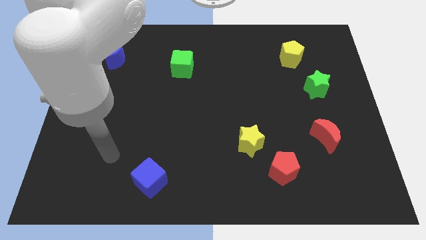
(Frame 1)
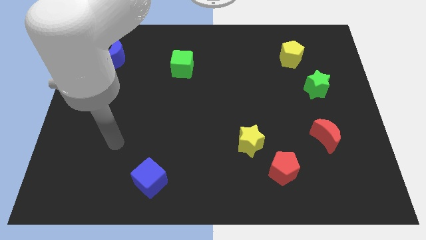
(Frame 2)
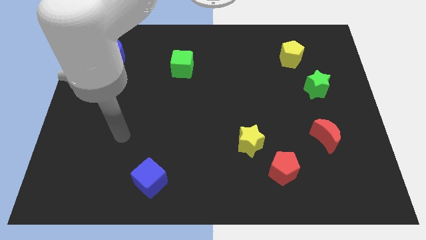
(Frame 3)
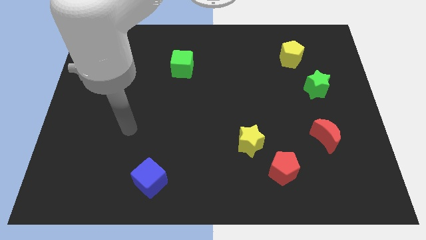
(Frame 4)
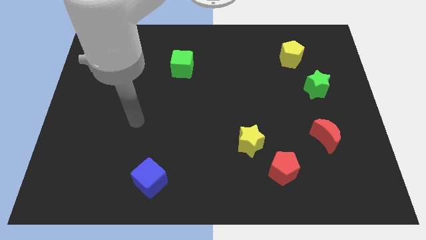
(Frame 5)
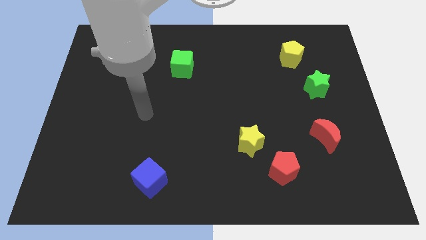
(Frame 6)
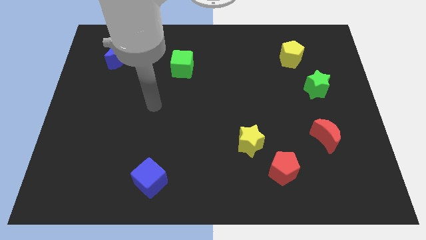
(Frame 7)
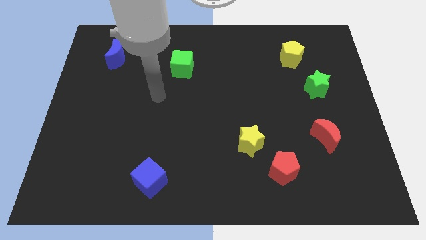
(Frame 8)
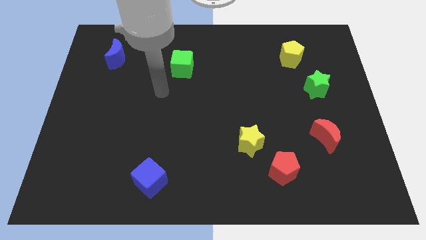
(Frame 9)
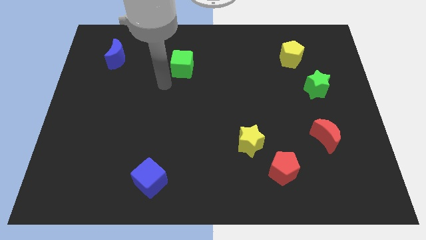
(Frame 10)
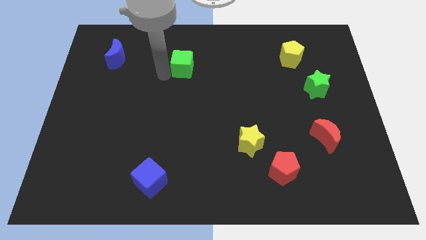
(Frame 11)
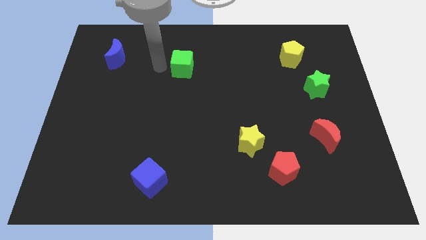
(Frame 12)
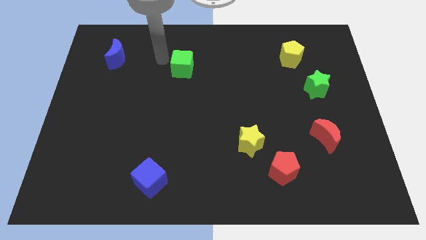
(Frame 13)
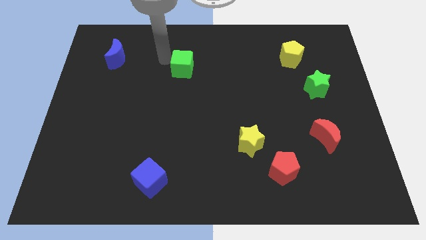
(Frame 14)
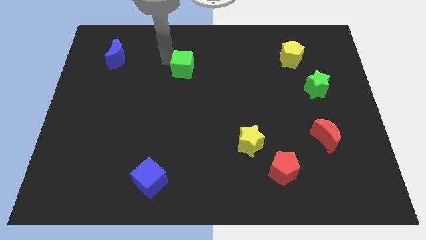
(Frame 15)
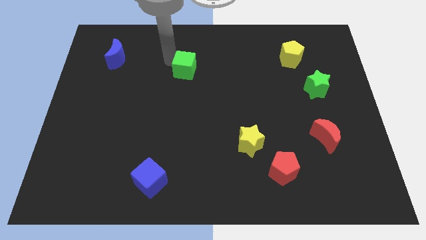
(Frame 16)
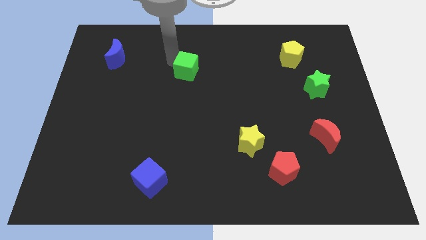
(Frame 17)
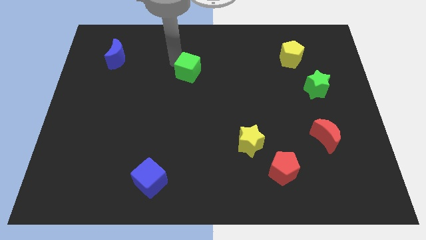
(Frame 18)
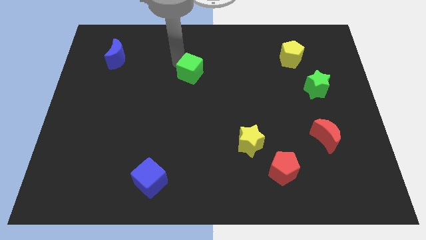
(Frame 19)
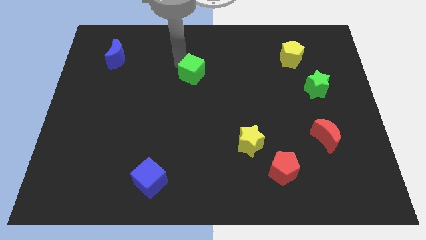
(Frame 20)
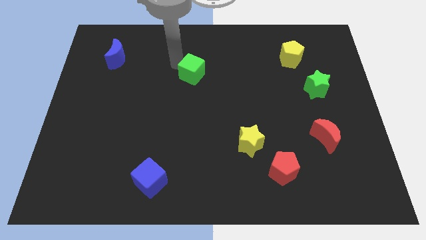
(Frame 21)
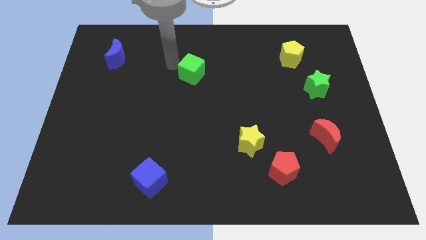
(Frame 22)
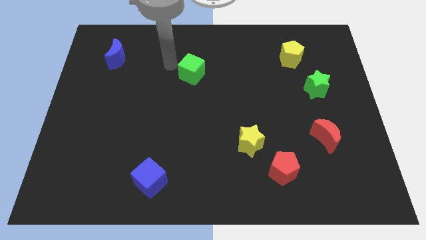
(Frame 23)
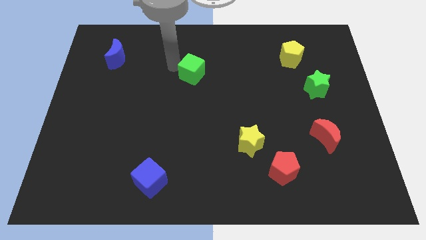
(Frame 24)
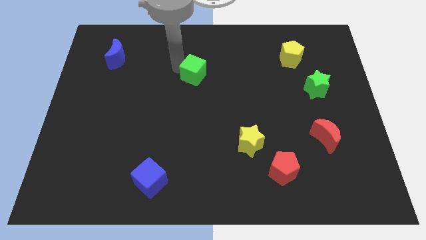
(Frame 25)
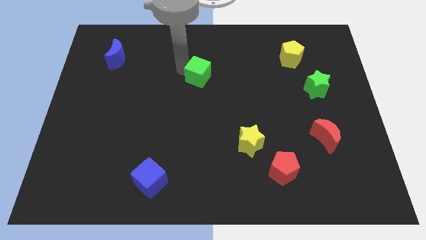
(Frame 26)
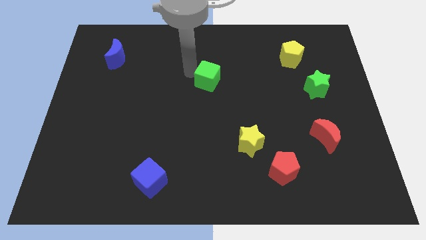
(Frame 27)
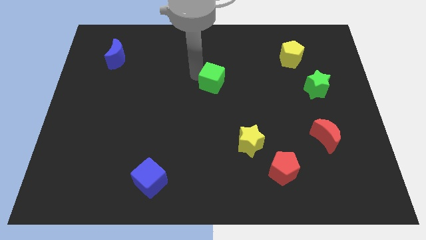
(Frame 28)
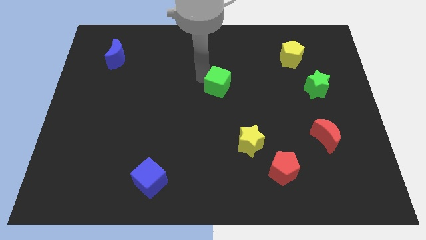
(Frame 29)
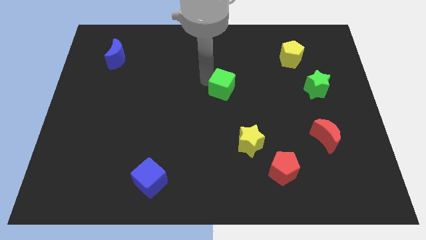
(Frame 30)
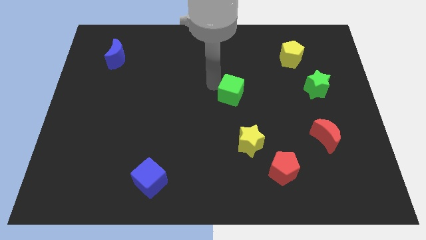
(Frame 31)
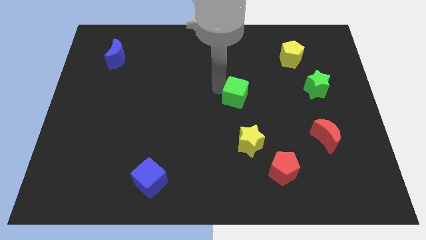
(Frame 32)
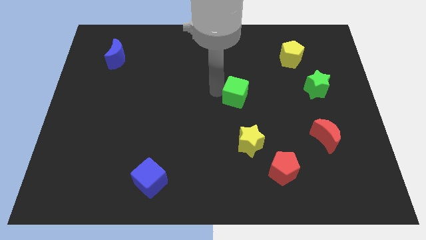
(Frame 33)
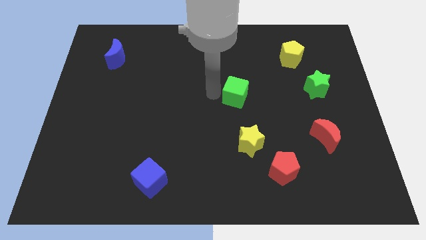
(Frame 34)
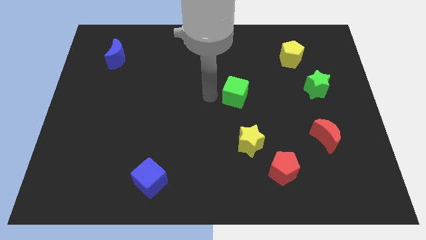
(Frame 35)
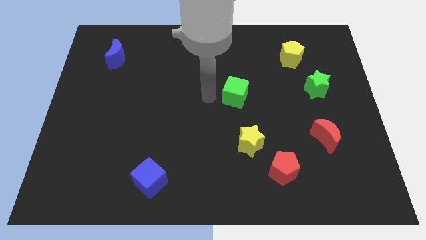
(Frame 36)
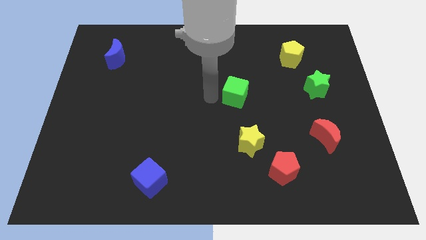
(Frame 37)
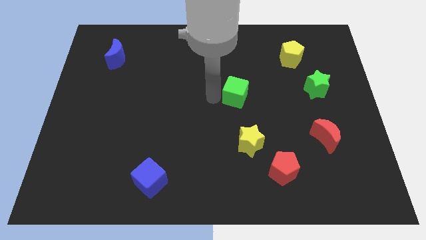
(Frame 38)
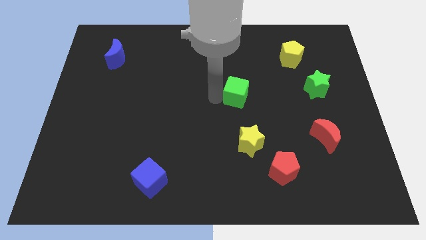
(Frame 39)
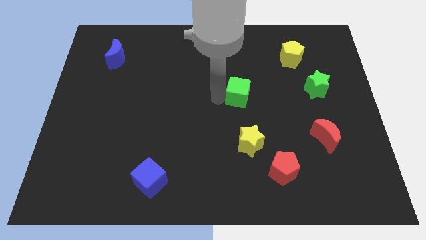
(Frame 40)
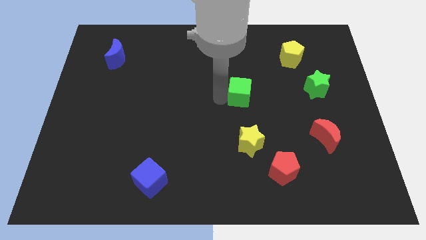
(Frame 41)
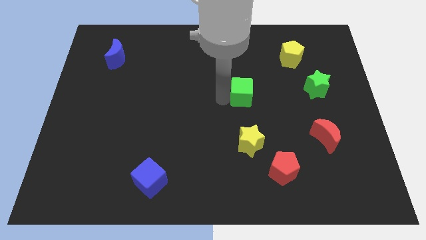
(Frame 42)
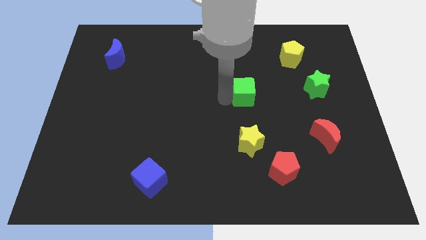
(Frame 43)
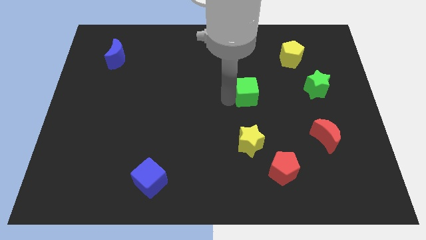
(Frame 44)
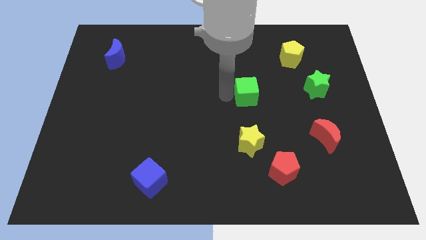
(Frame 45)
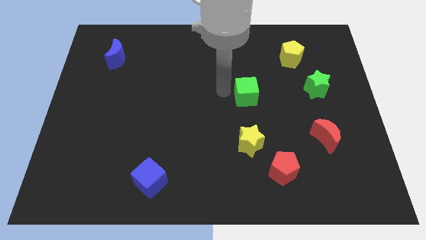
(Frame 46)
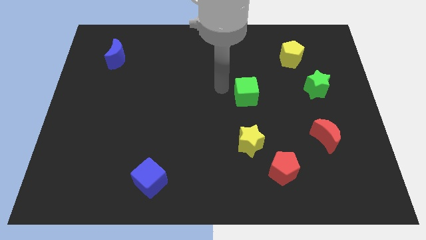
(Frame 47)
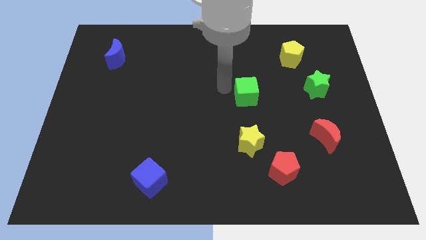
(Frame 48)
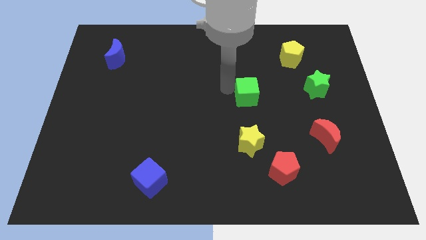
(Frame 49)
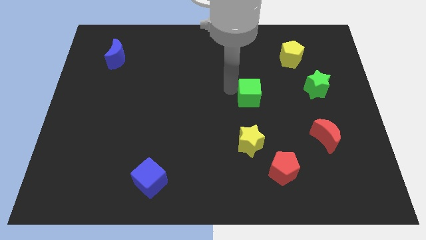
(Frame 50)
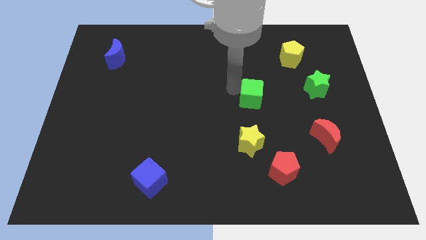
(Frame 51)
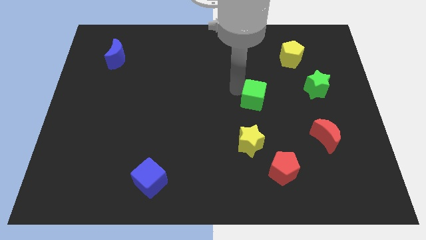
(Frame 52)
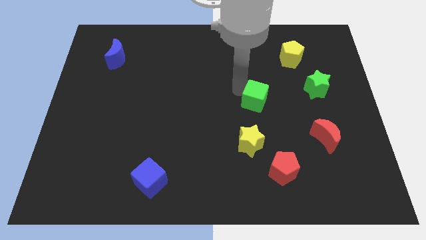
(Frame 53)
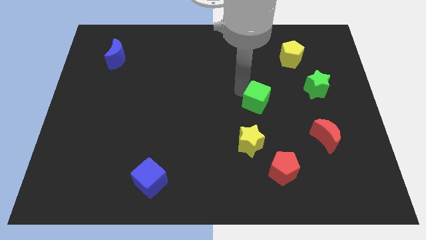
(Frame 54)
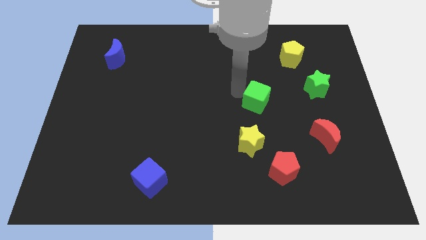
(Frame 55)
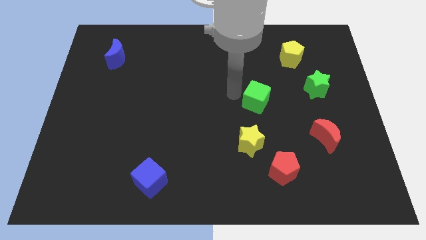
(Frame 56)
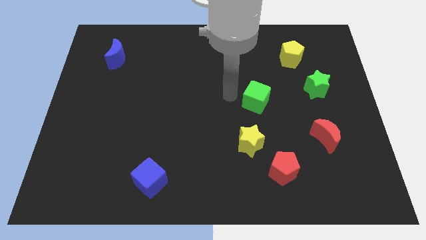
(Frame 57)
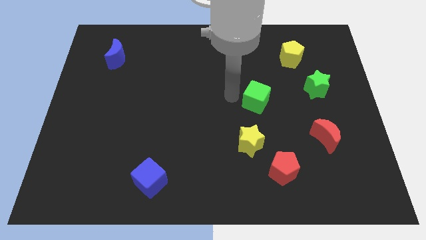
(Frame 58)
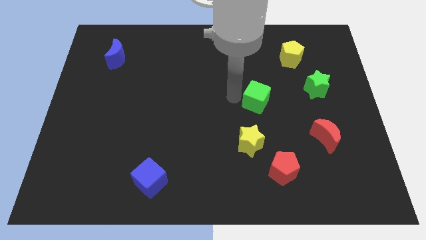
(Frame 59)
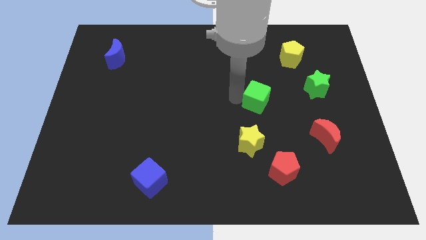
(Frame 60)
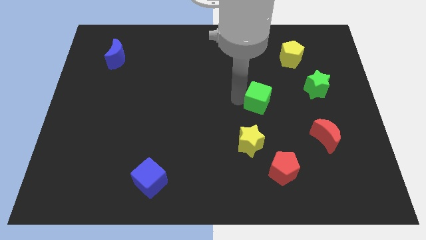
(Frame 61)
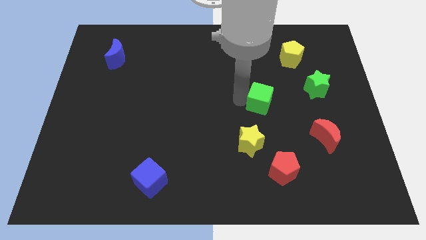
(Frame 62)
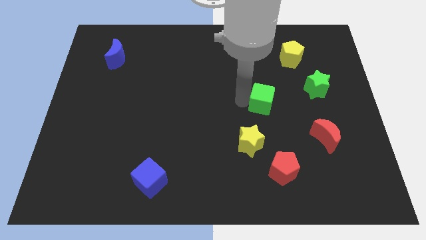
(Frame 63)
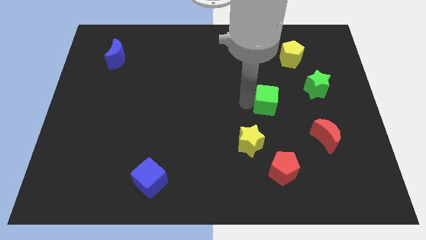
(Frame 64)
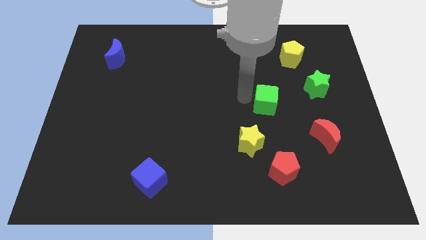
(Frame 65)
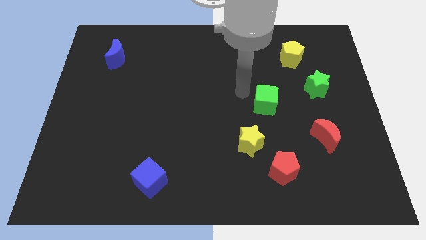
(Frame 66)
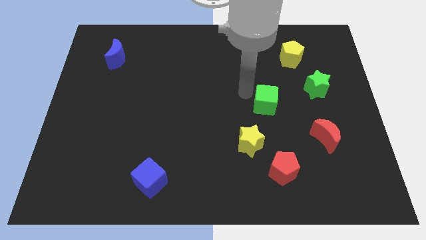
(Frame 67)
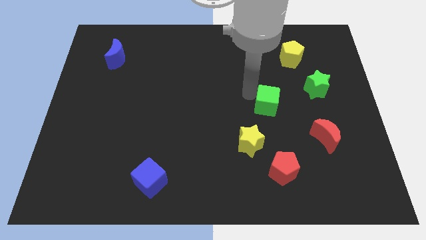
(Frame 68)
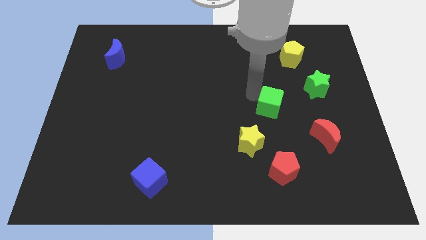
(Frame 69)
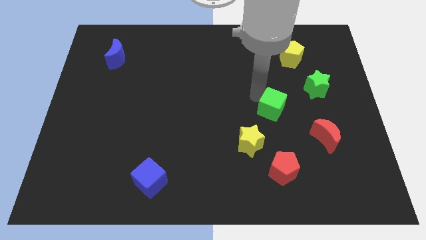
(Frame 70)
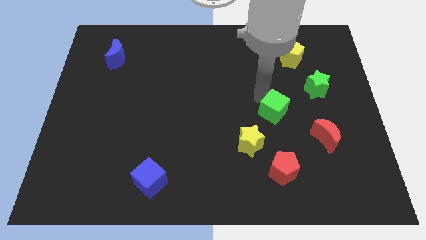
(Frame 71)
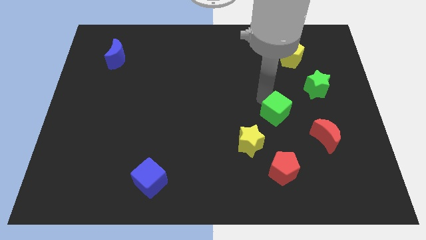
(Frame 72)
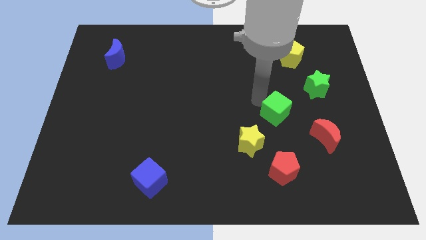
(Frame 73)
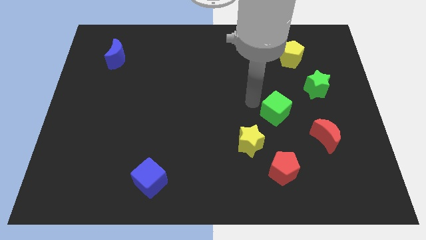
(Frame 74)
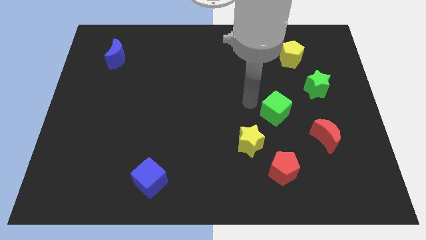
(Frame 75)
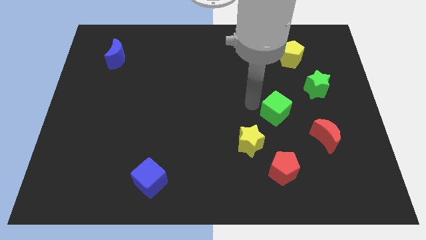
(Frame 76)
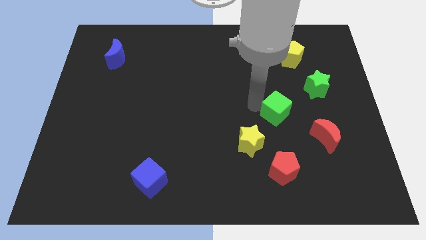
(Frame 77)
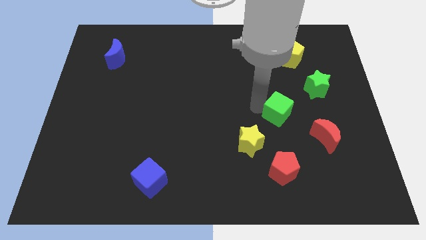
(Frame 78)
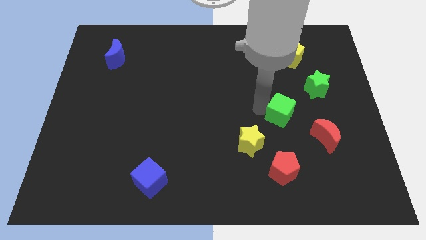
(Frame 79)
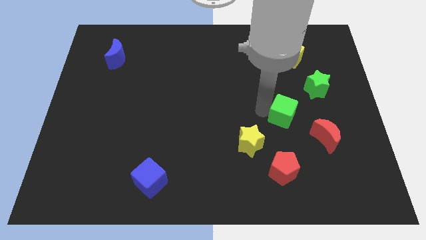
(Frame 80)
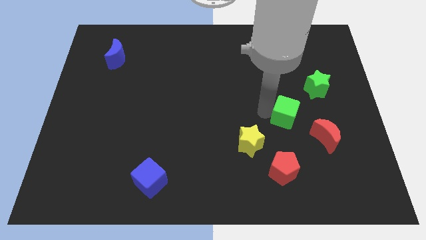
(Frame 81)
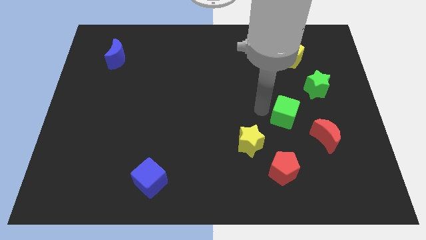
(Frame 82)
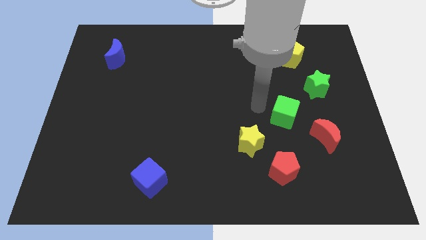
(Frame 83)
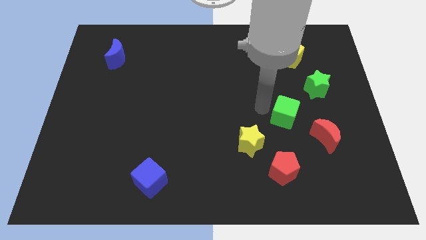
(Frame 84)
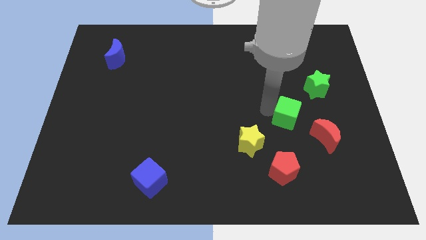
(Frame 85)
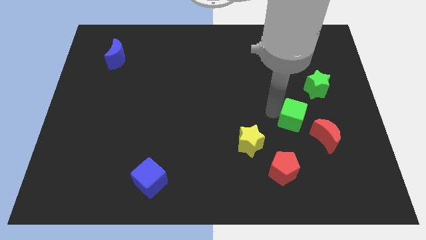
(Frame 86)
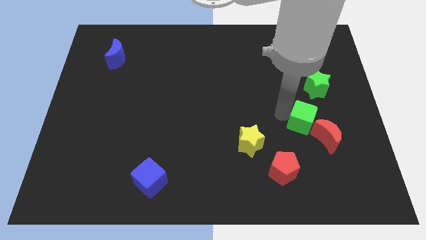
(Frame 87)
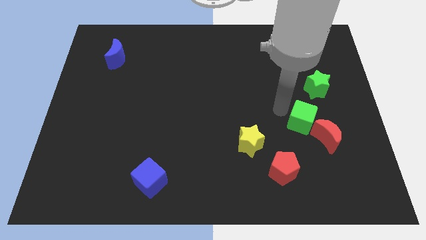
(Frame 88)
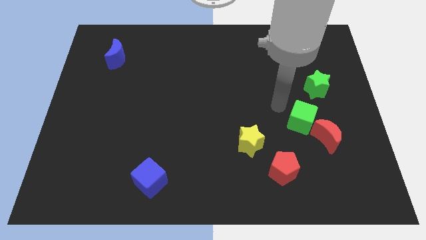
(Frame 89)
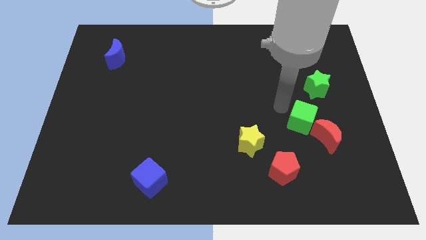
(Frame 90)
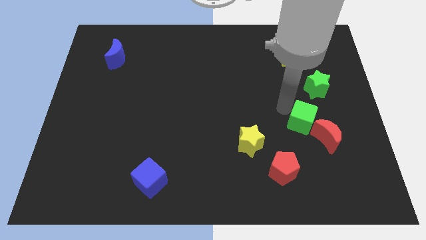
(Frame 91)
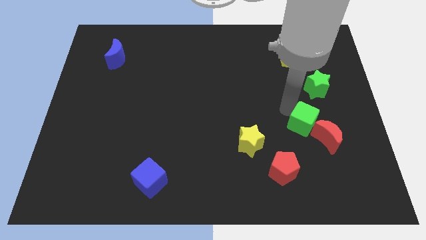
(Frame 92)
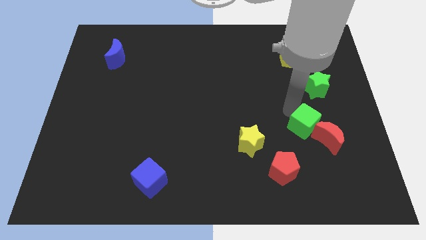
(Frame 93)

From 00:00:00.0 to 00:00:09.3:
push the green cube to the red moon
